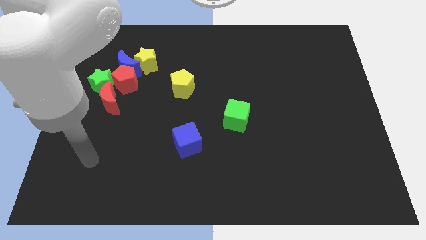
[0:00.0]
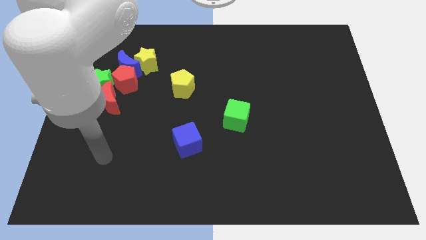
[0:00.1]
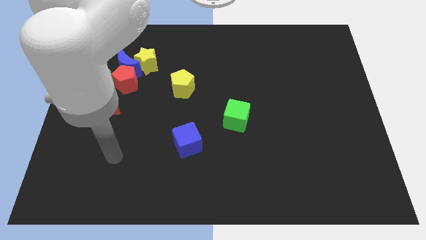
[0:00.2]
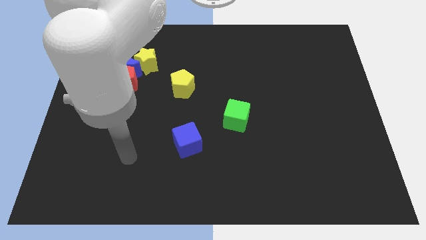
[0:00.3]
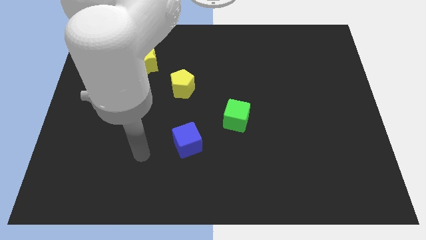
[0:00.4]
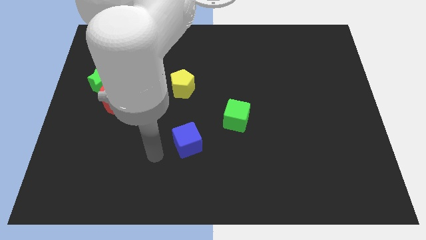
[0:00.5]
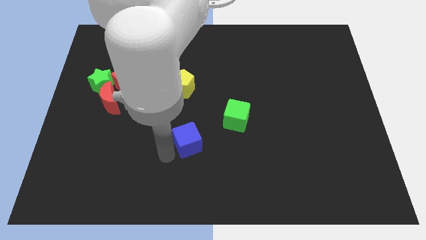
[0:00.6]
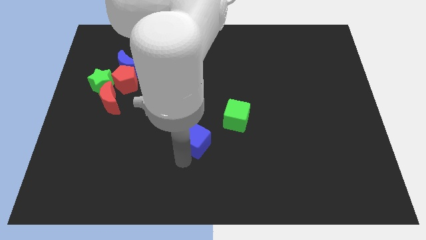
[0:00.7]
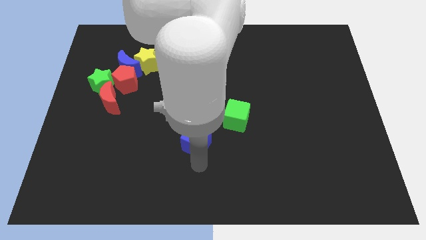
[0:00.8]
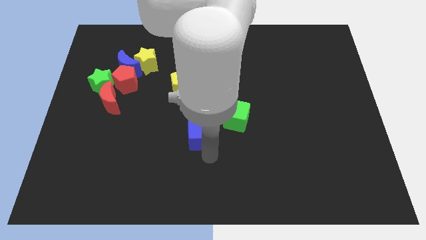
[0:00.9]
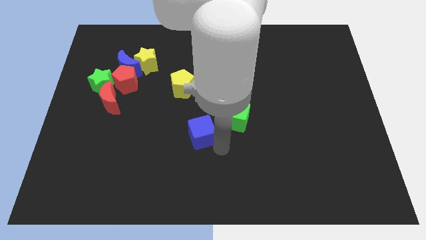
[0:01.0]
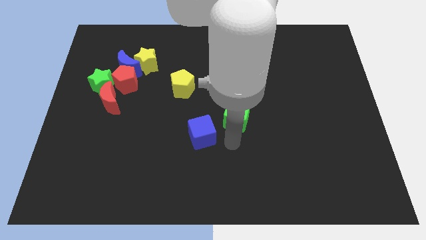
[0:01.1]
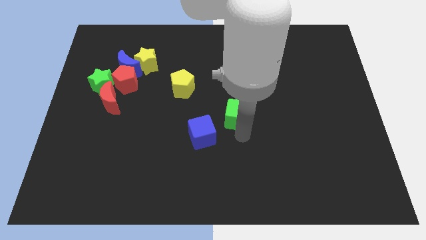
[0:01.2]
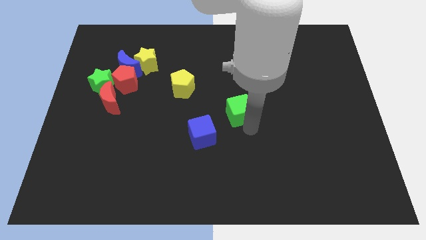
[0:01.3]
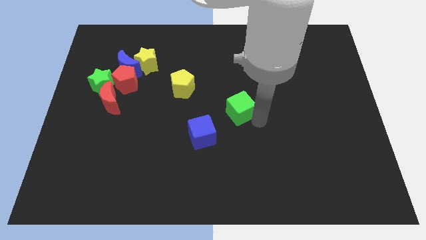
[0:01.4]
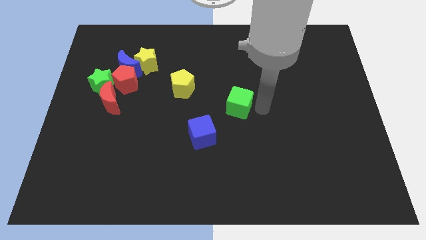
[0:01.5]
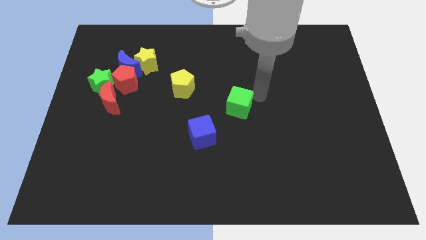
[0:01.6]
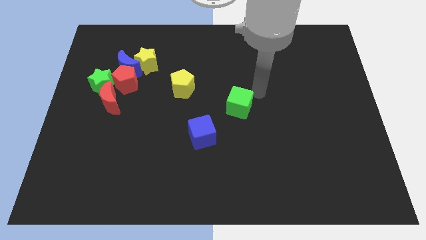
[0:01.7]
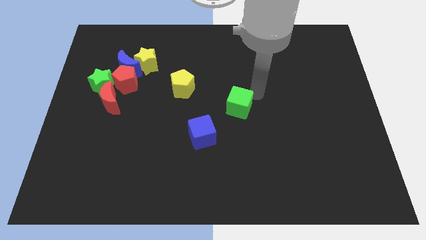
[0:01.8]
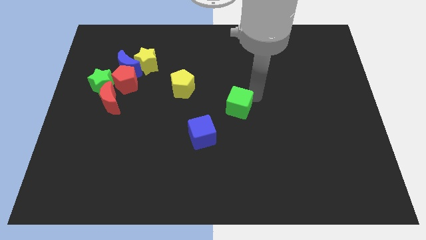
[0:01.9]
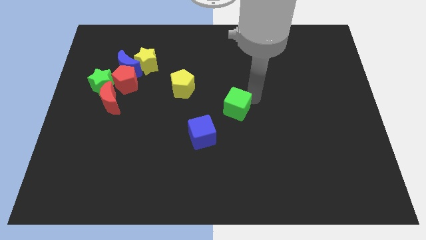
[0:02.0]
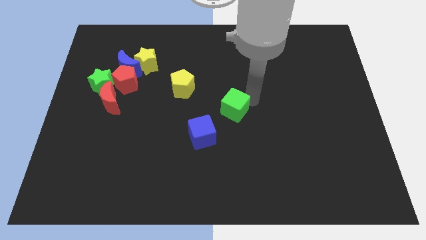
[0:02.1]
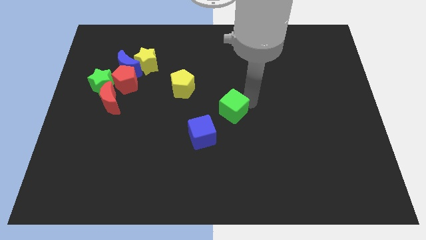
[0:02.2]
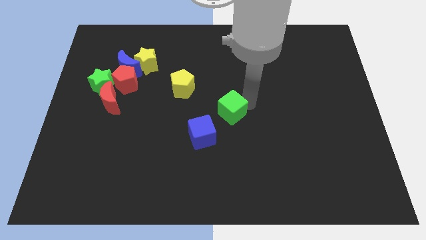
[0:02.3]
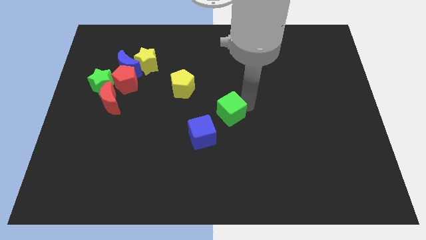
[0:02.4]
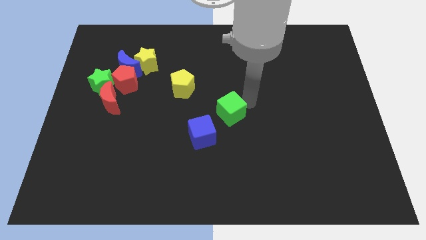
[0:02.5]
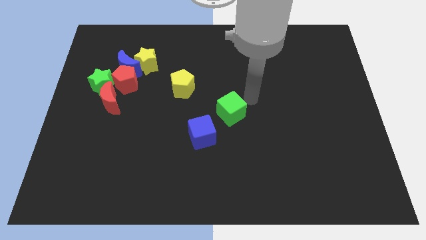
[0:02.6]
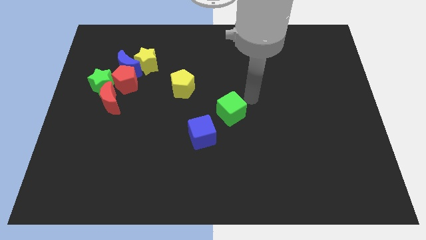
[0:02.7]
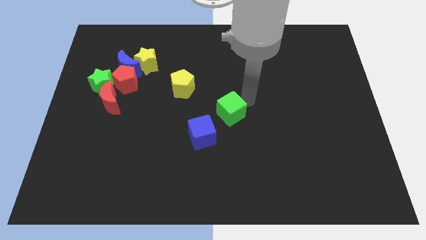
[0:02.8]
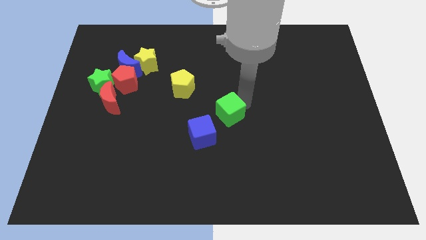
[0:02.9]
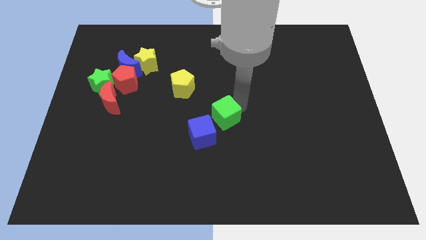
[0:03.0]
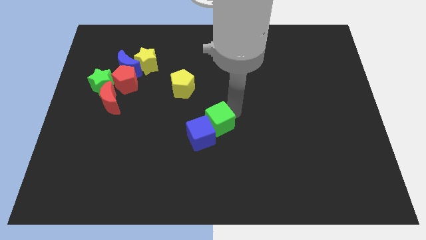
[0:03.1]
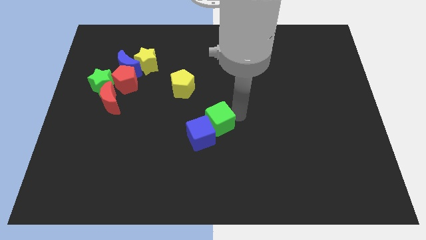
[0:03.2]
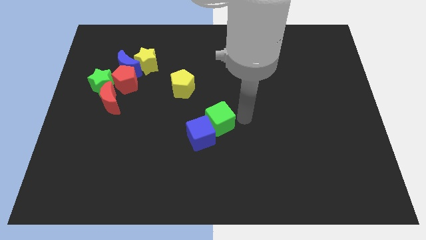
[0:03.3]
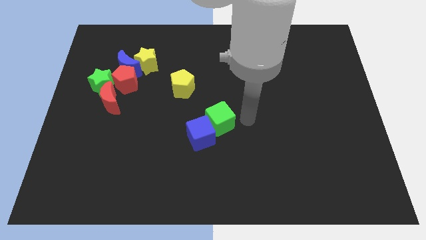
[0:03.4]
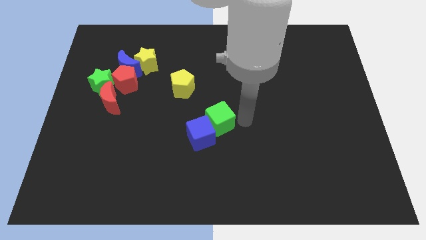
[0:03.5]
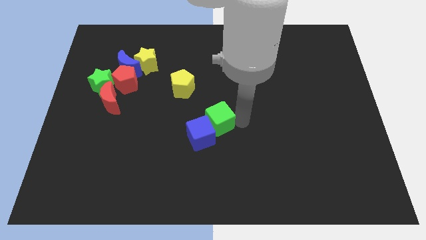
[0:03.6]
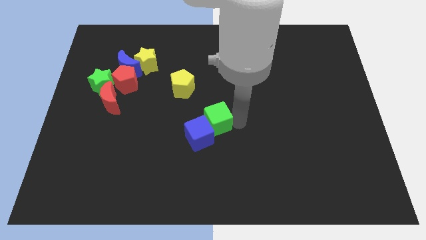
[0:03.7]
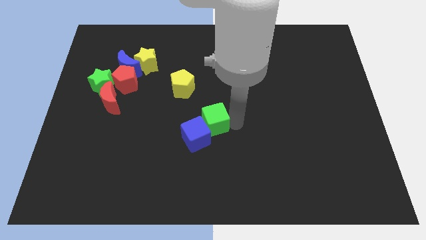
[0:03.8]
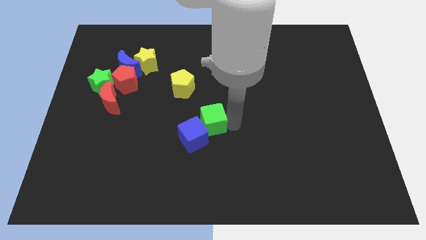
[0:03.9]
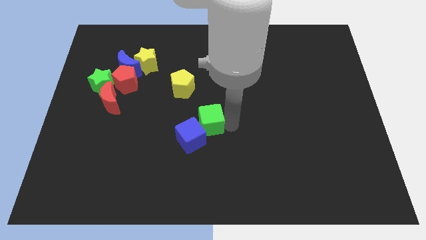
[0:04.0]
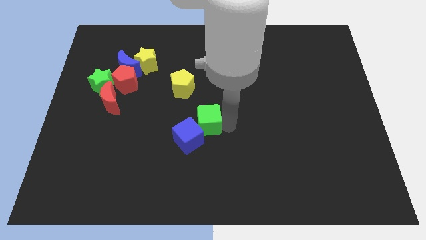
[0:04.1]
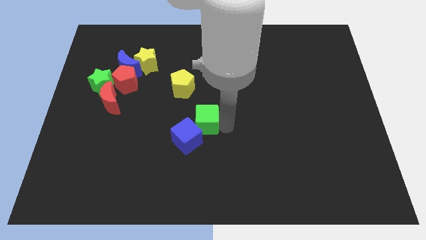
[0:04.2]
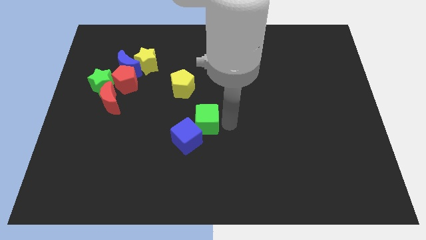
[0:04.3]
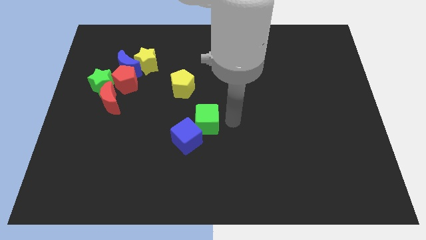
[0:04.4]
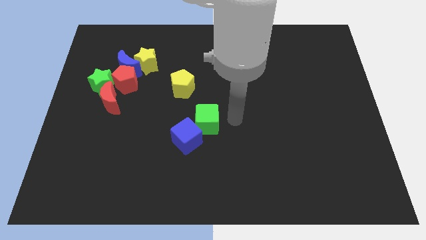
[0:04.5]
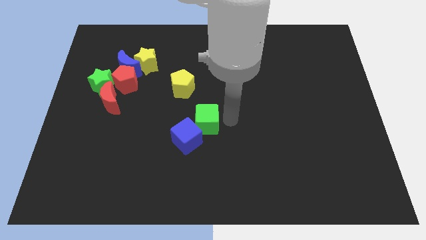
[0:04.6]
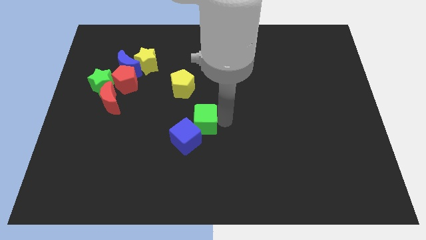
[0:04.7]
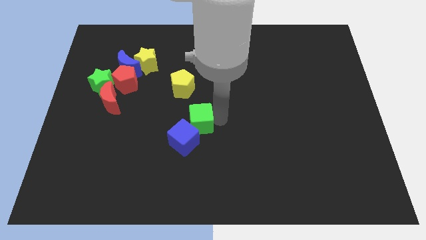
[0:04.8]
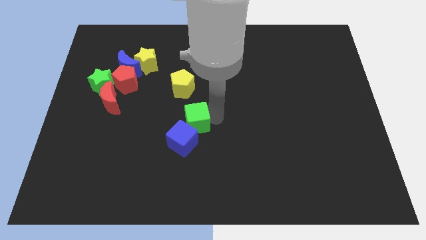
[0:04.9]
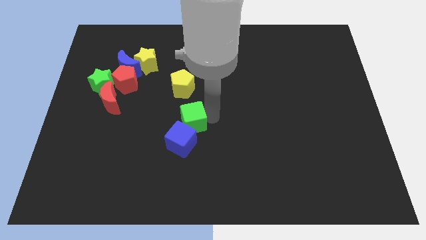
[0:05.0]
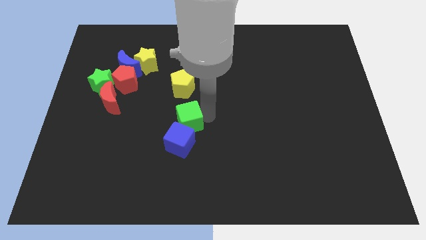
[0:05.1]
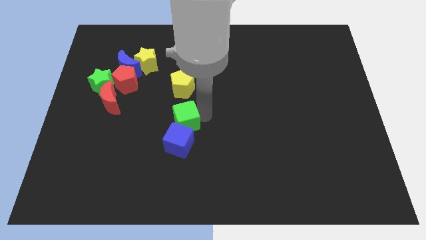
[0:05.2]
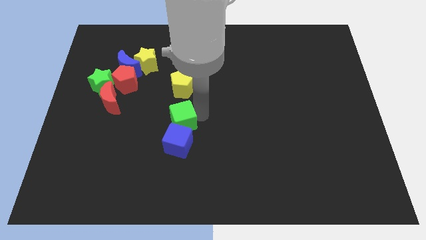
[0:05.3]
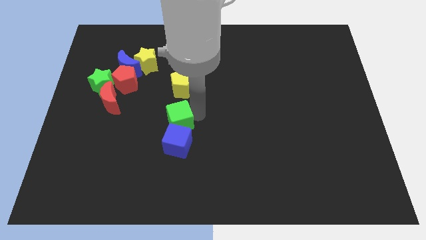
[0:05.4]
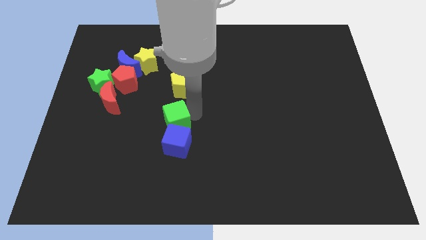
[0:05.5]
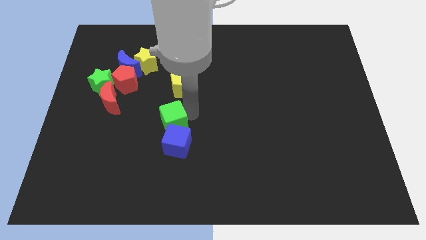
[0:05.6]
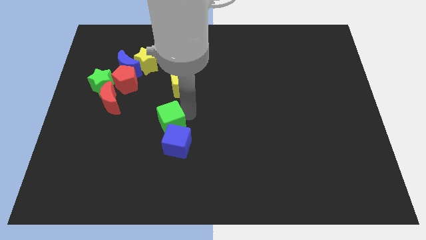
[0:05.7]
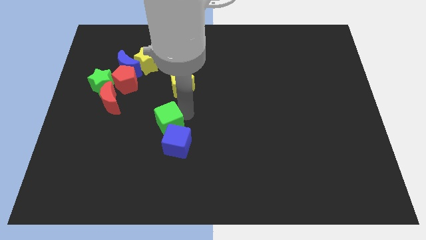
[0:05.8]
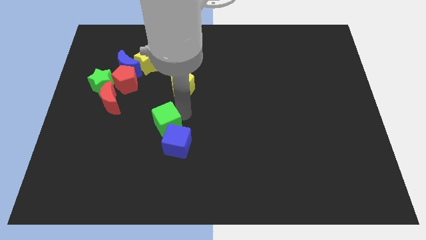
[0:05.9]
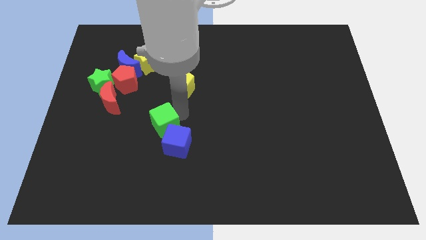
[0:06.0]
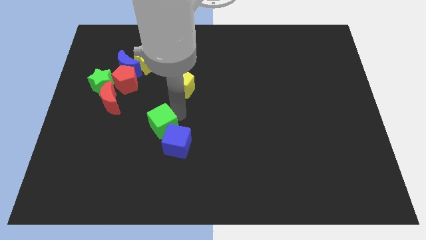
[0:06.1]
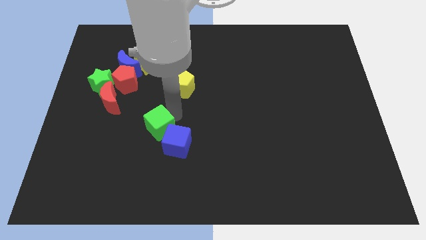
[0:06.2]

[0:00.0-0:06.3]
move the green cube just left of the blue cube

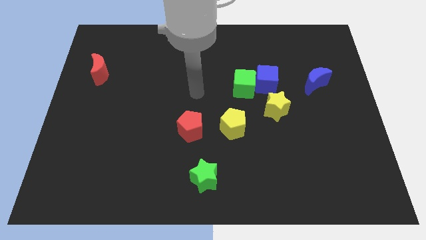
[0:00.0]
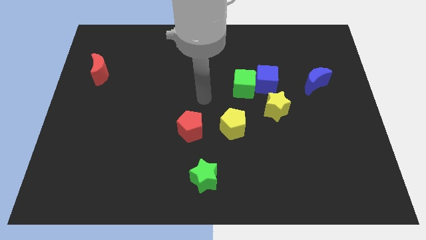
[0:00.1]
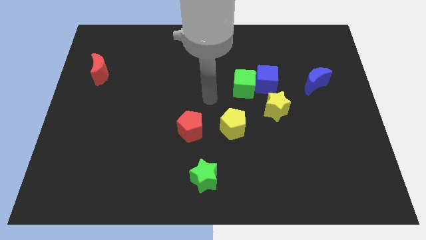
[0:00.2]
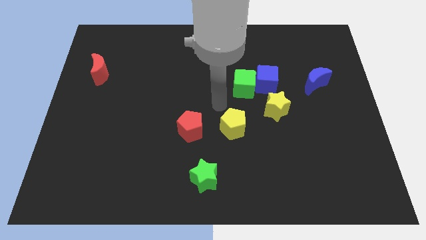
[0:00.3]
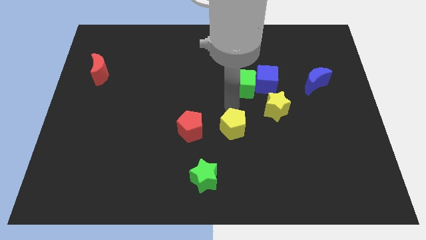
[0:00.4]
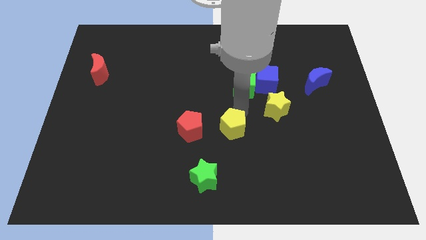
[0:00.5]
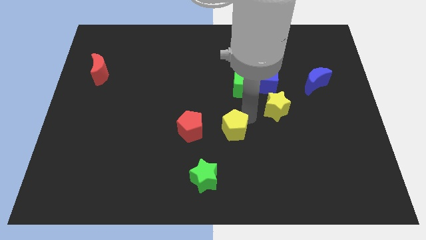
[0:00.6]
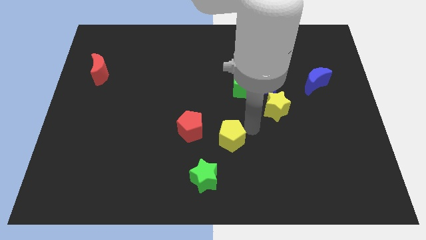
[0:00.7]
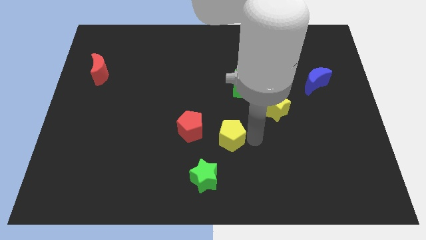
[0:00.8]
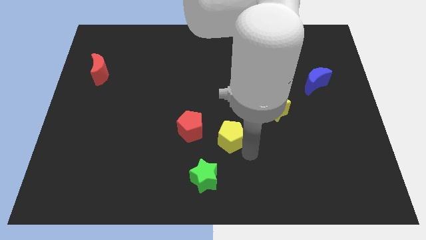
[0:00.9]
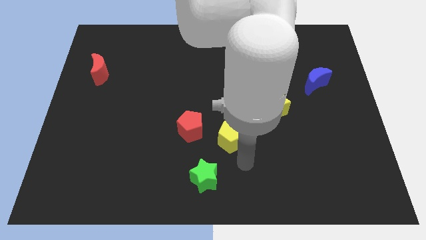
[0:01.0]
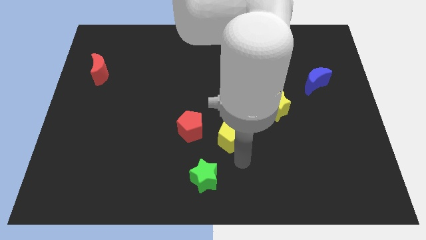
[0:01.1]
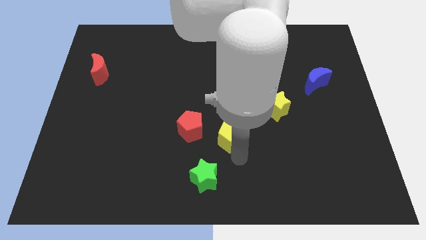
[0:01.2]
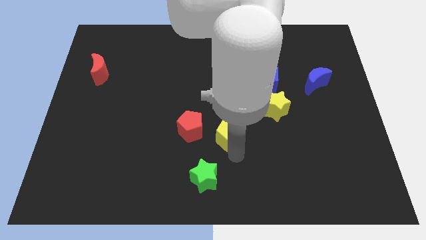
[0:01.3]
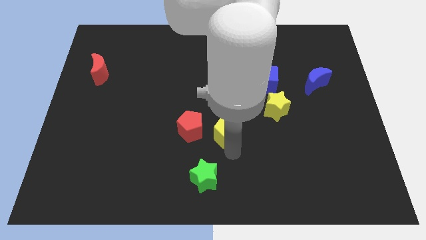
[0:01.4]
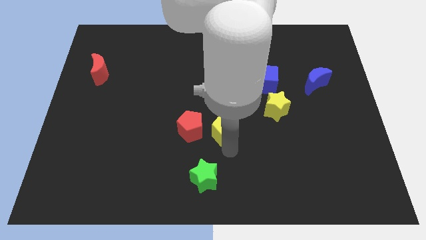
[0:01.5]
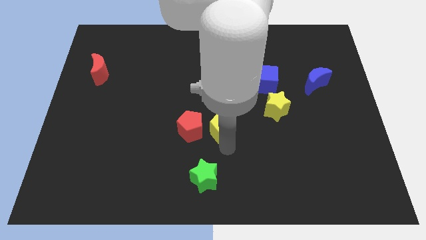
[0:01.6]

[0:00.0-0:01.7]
push the yellow pentagon to the top right side of the red pentagon
